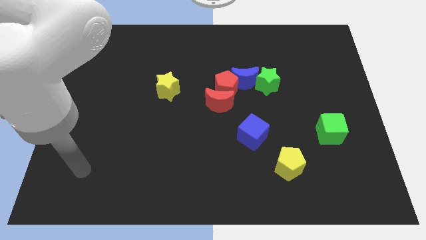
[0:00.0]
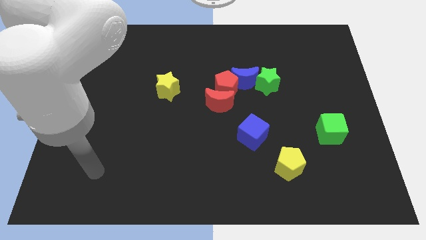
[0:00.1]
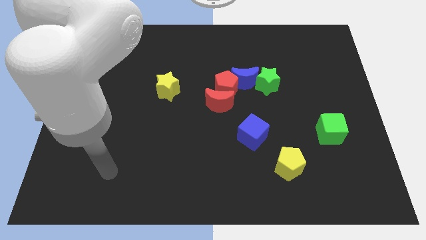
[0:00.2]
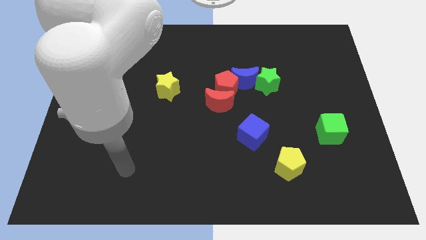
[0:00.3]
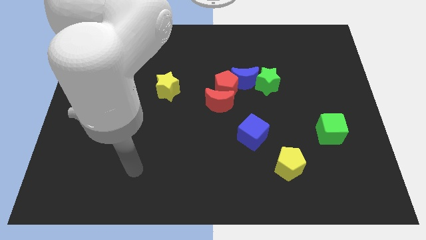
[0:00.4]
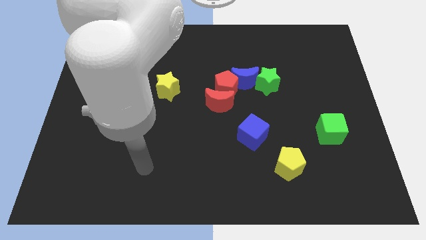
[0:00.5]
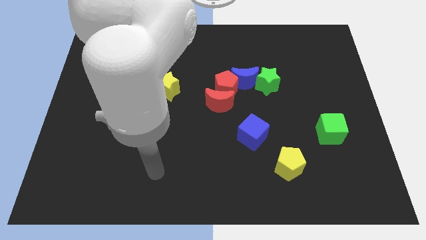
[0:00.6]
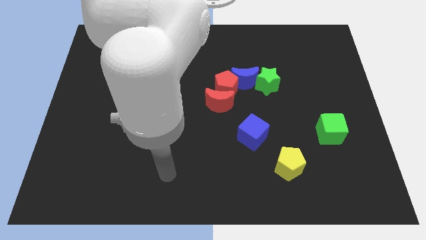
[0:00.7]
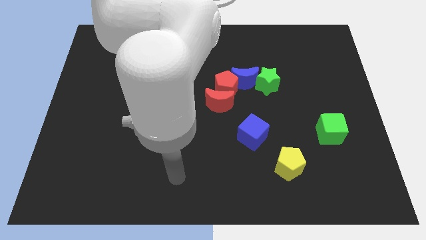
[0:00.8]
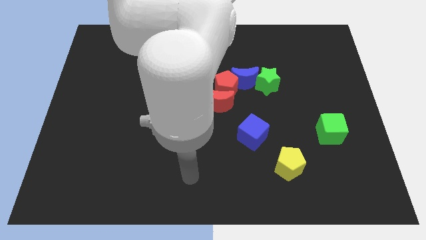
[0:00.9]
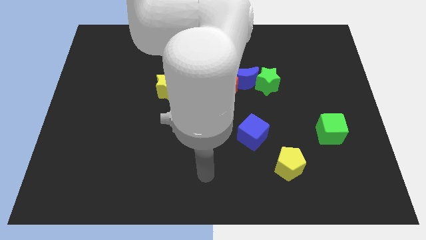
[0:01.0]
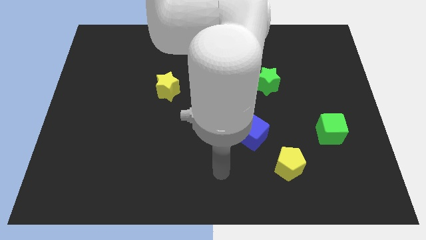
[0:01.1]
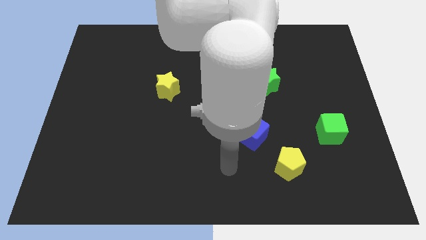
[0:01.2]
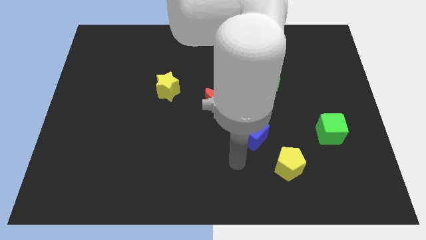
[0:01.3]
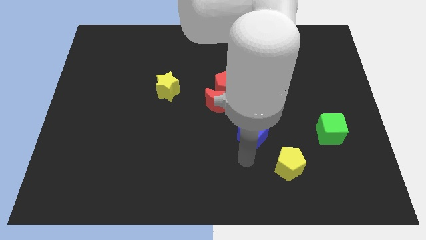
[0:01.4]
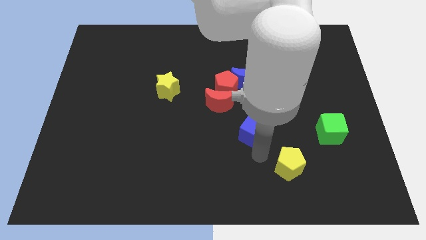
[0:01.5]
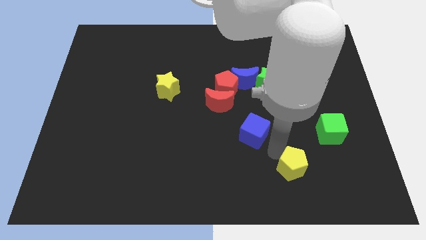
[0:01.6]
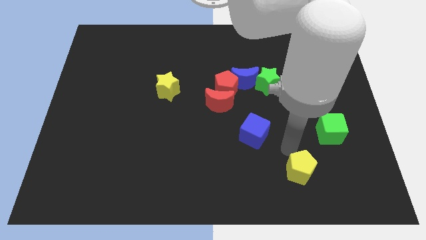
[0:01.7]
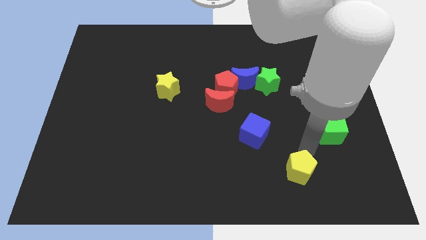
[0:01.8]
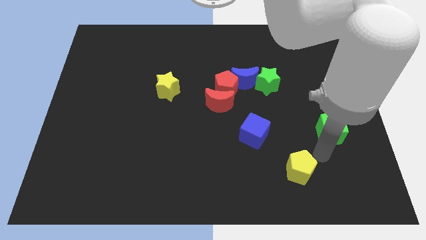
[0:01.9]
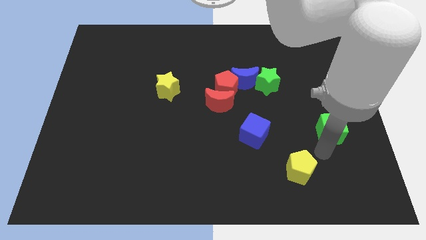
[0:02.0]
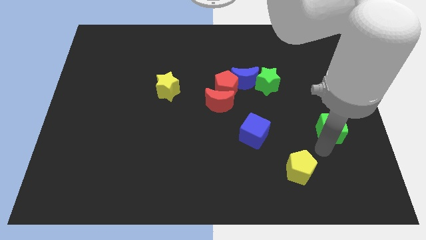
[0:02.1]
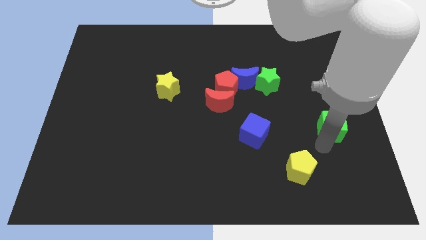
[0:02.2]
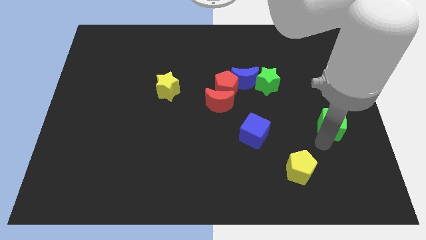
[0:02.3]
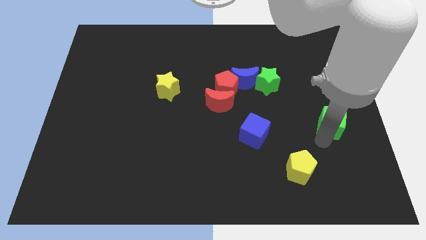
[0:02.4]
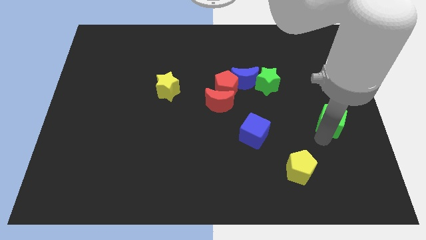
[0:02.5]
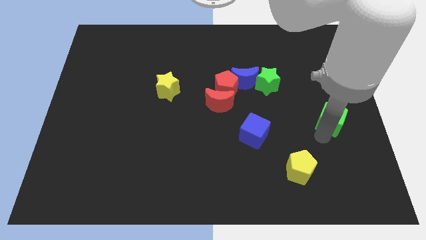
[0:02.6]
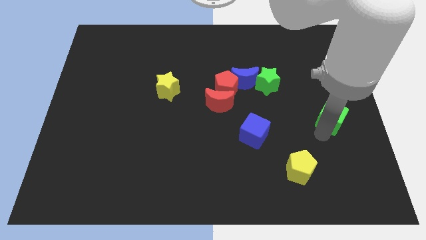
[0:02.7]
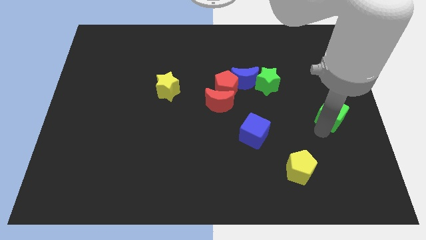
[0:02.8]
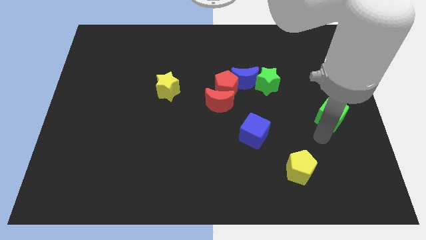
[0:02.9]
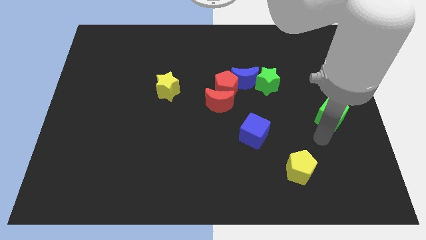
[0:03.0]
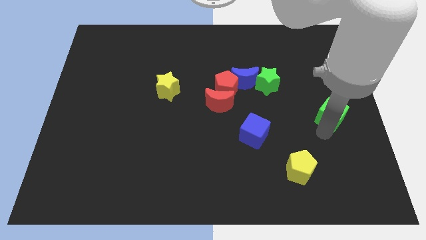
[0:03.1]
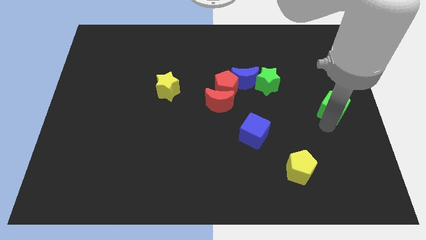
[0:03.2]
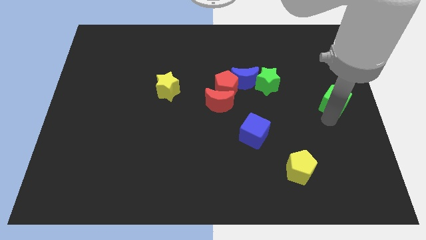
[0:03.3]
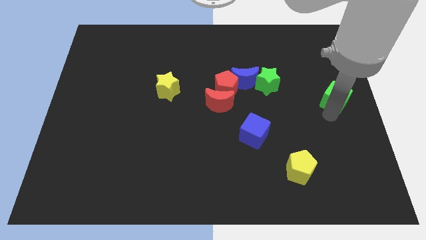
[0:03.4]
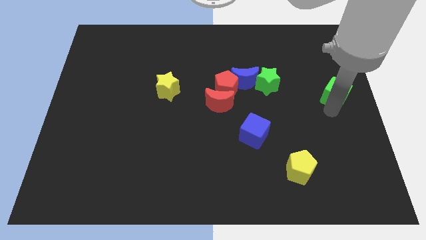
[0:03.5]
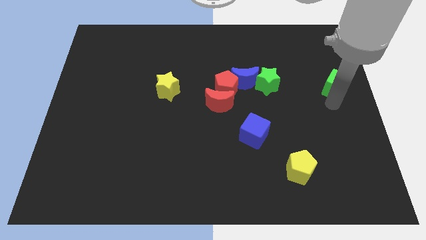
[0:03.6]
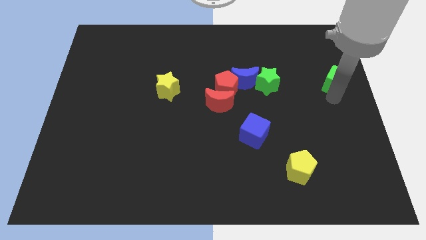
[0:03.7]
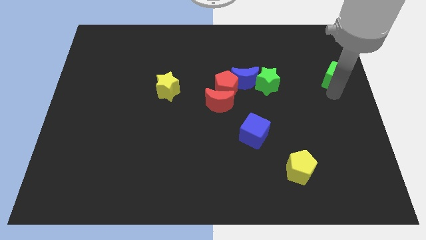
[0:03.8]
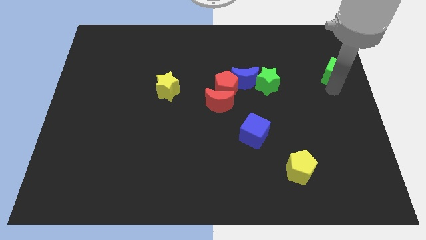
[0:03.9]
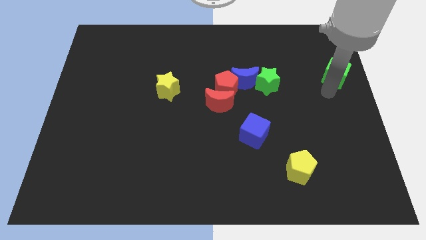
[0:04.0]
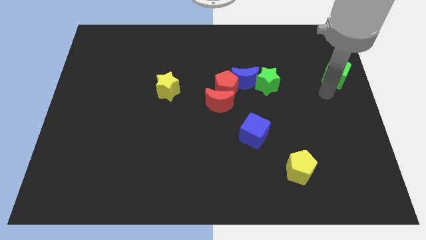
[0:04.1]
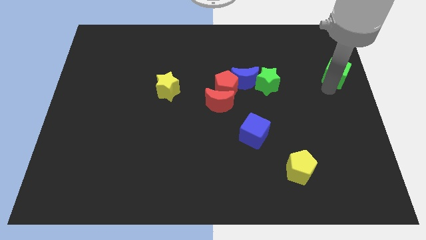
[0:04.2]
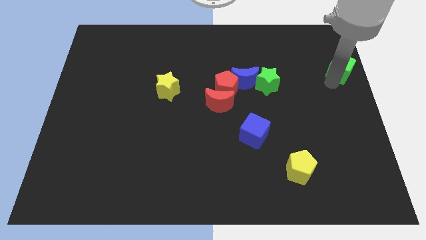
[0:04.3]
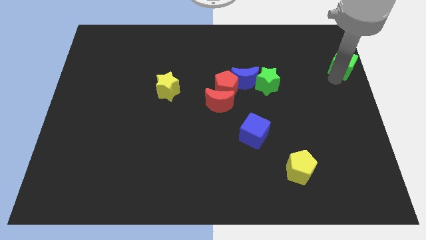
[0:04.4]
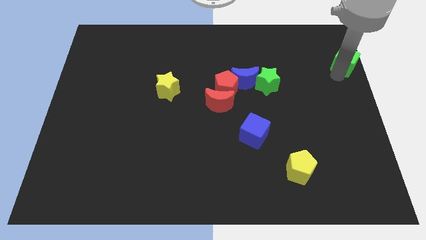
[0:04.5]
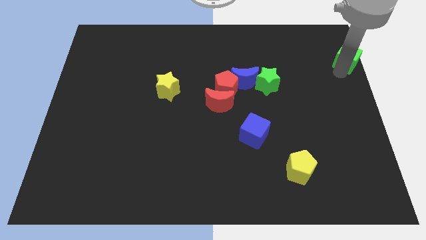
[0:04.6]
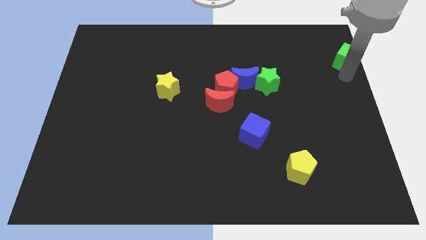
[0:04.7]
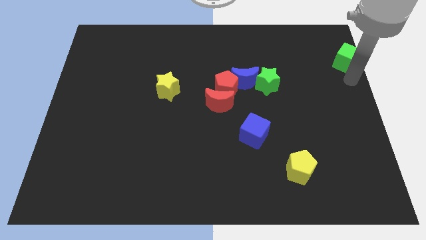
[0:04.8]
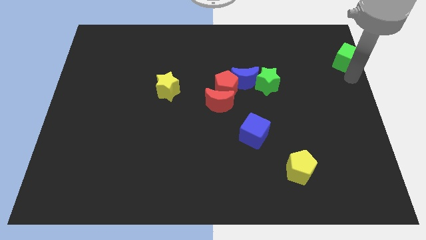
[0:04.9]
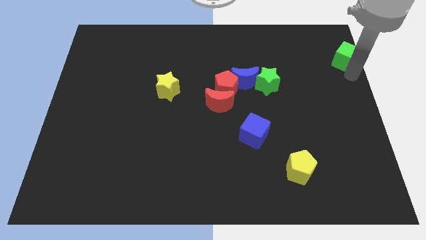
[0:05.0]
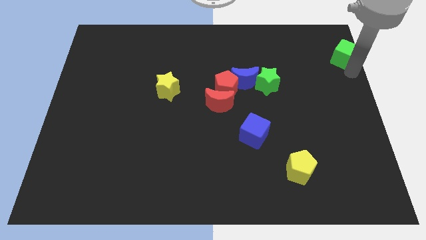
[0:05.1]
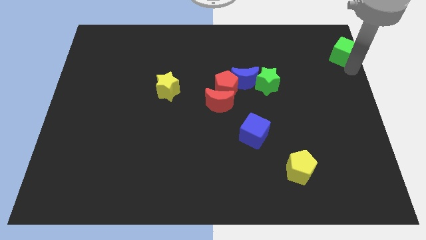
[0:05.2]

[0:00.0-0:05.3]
slide the green cube to the top right corner

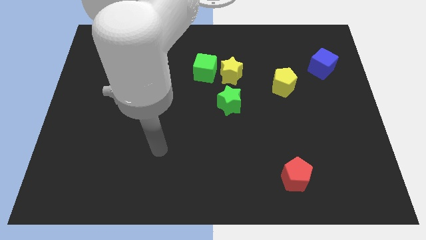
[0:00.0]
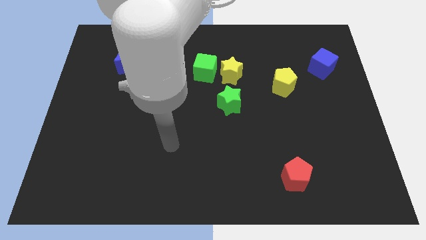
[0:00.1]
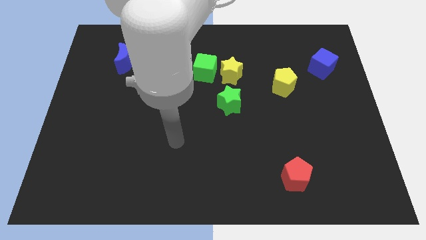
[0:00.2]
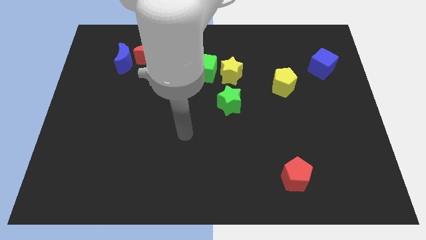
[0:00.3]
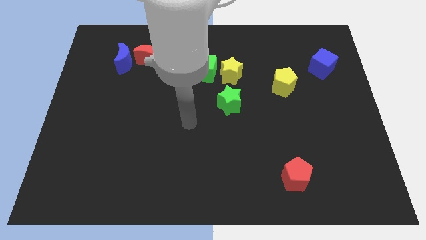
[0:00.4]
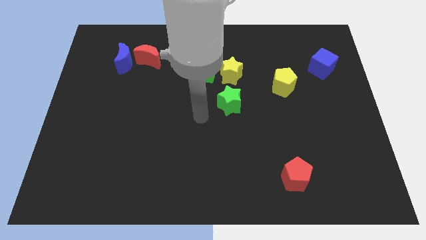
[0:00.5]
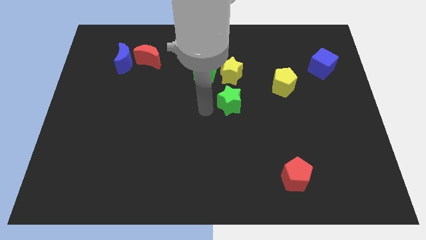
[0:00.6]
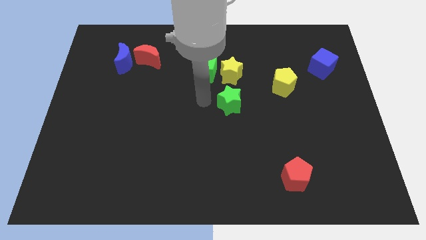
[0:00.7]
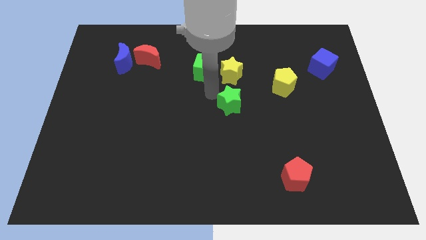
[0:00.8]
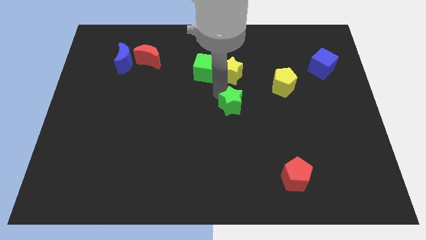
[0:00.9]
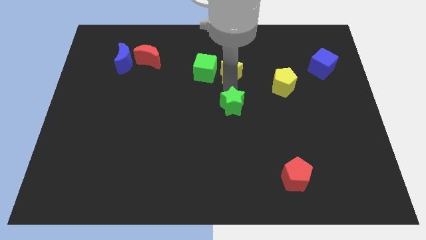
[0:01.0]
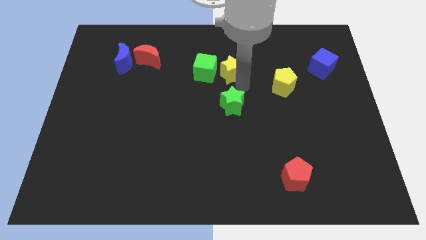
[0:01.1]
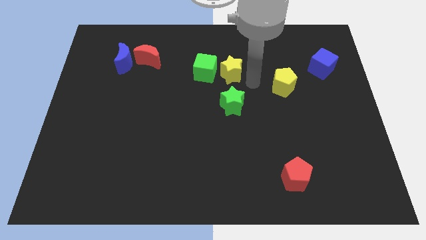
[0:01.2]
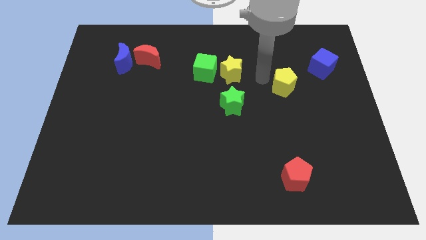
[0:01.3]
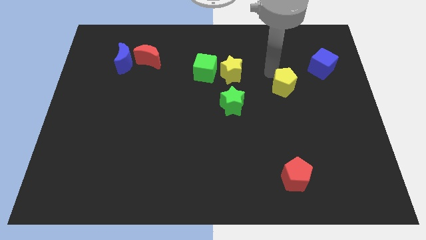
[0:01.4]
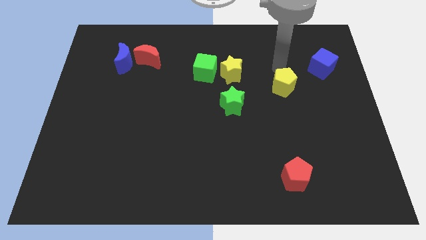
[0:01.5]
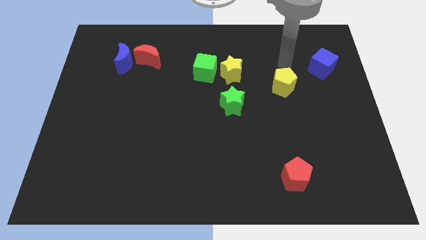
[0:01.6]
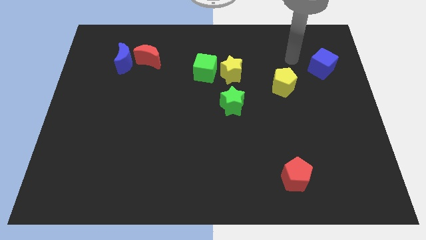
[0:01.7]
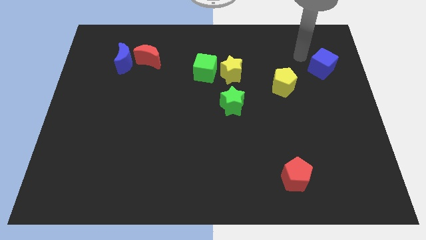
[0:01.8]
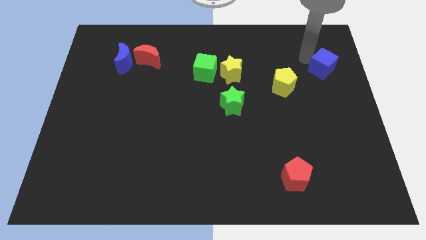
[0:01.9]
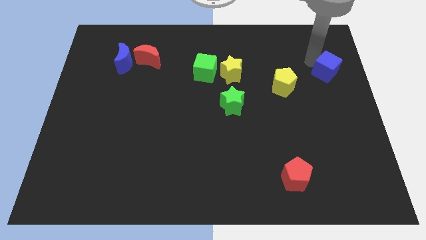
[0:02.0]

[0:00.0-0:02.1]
slide the blue cube to the right side
